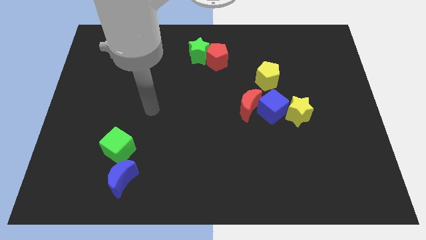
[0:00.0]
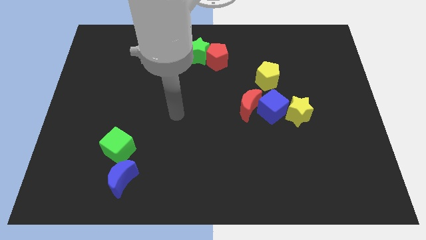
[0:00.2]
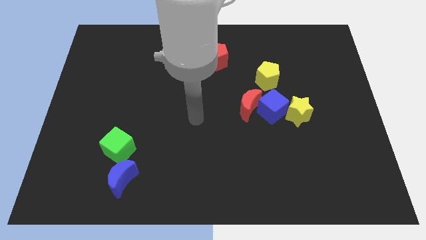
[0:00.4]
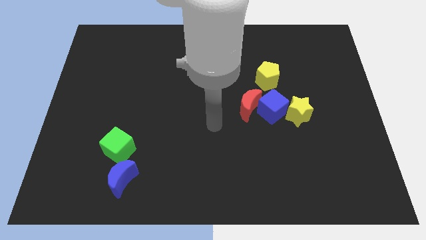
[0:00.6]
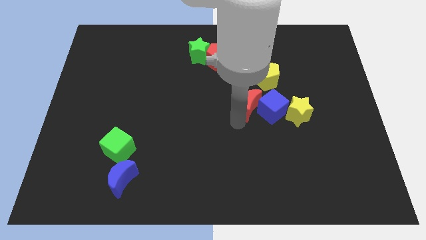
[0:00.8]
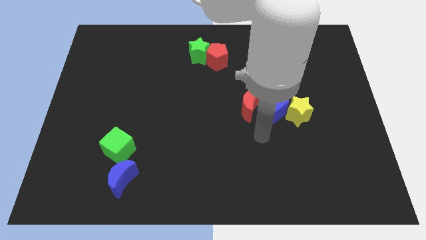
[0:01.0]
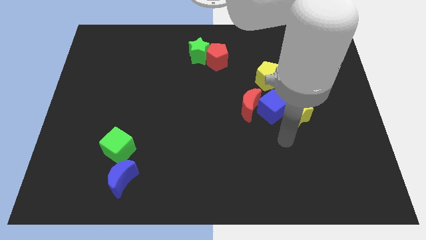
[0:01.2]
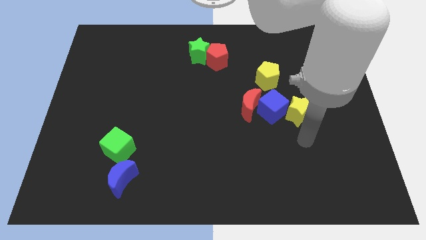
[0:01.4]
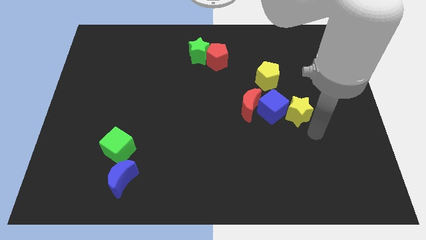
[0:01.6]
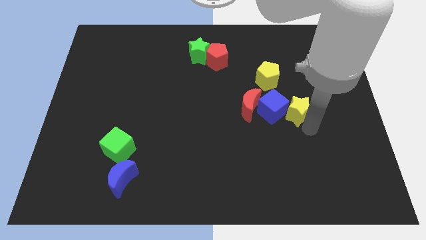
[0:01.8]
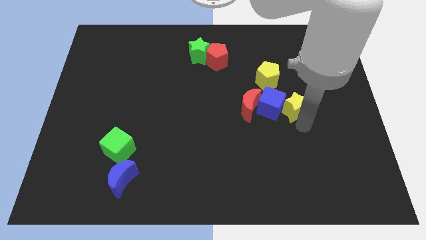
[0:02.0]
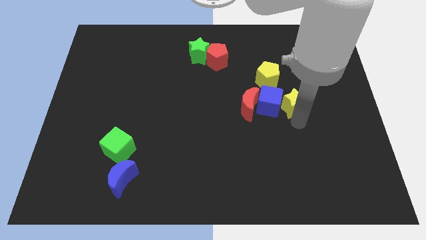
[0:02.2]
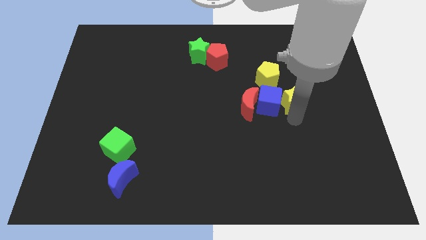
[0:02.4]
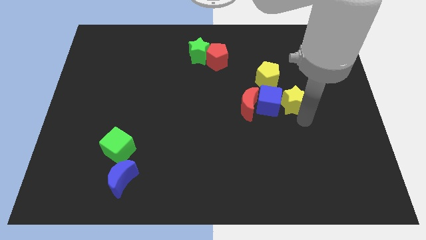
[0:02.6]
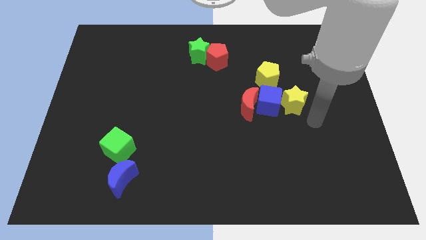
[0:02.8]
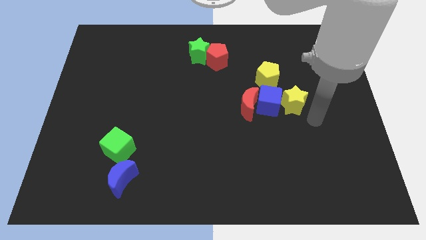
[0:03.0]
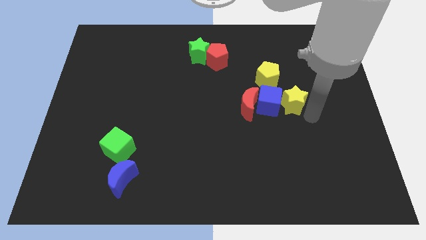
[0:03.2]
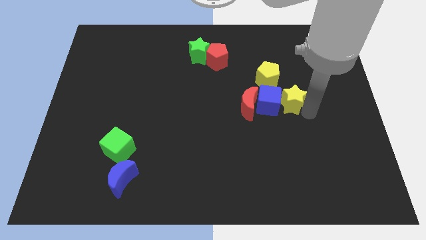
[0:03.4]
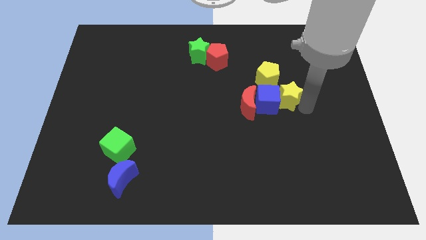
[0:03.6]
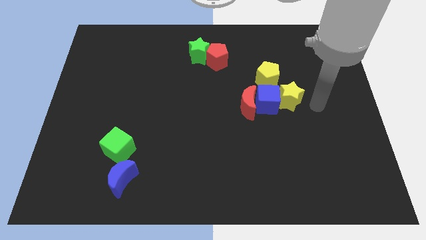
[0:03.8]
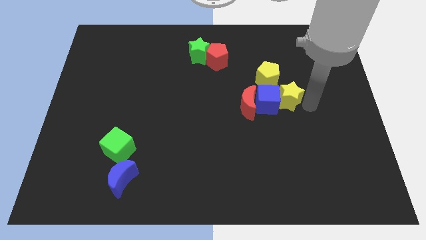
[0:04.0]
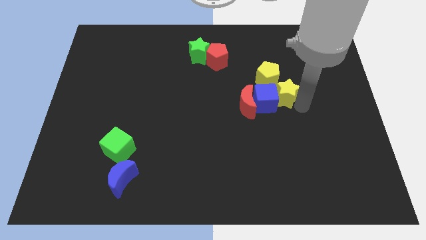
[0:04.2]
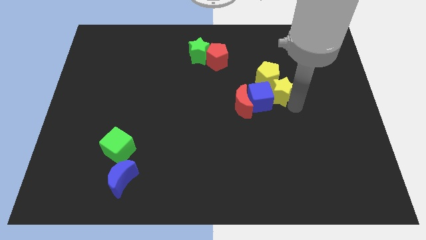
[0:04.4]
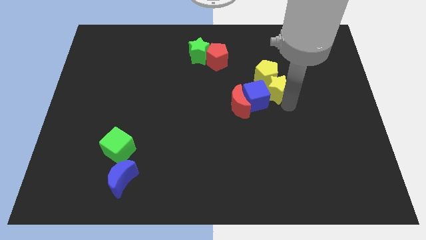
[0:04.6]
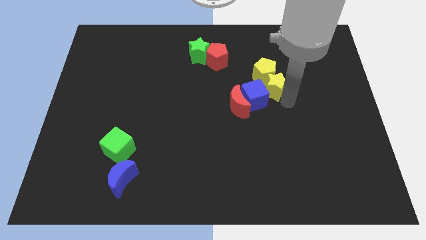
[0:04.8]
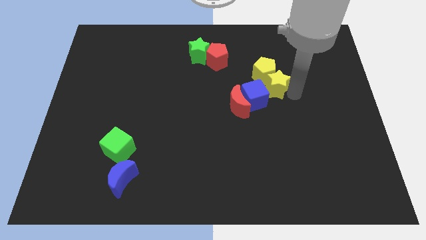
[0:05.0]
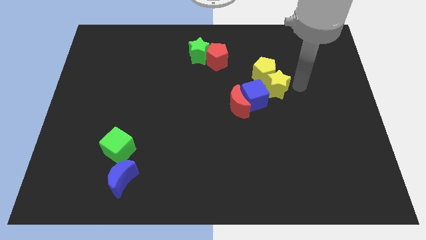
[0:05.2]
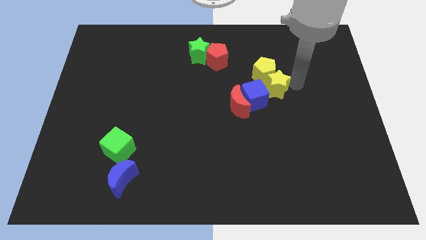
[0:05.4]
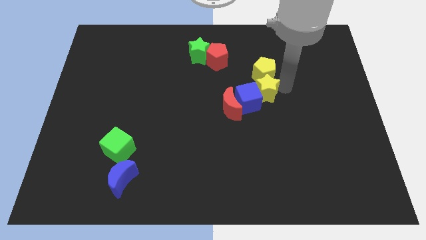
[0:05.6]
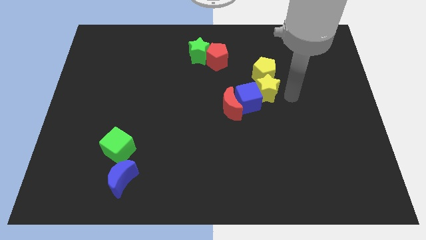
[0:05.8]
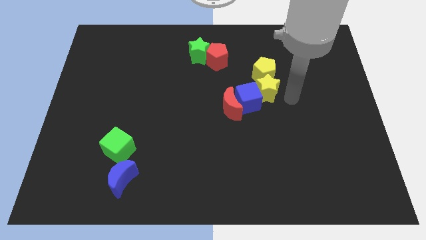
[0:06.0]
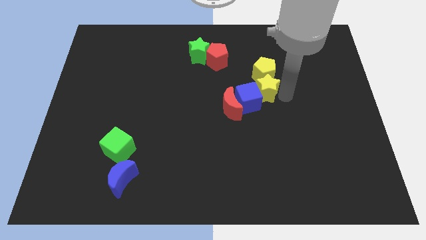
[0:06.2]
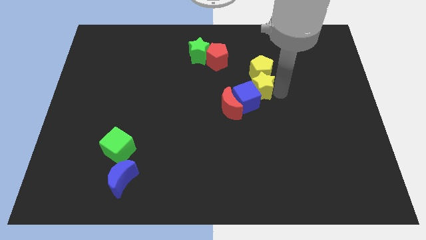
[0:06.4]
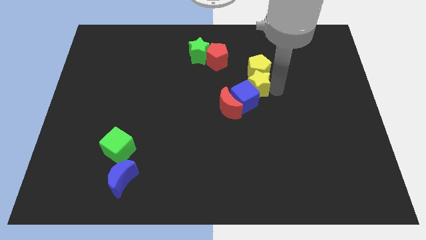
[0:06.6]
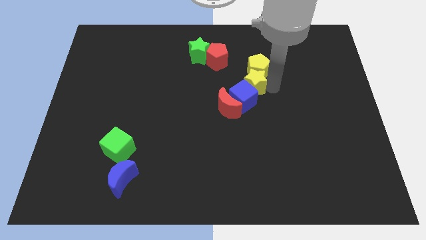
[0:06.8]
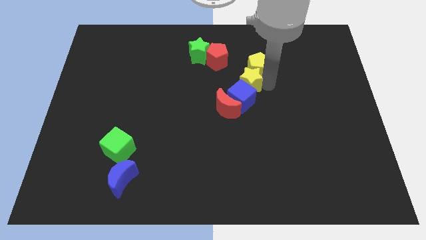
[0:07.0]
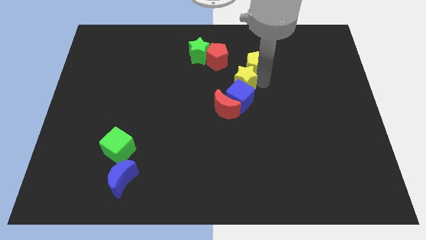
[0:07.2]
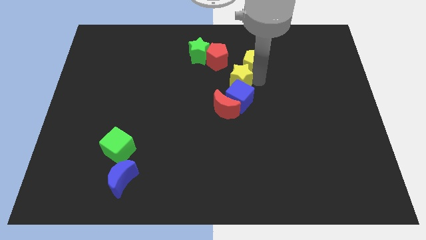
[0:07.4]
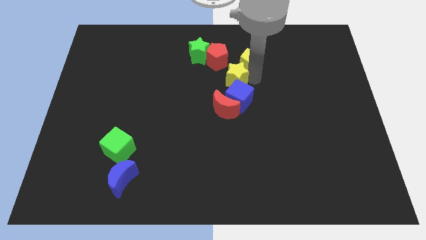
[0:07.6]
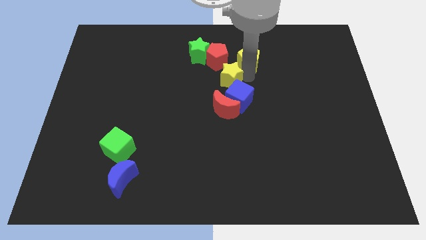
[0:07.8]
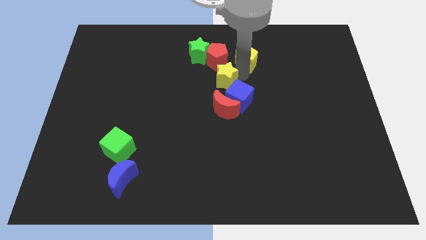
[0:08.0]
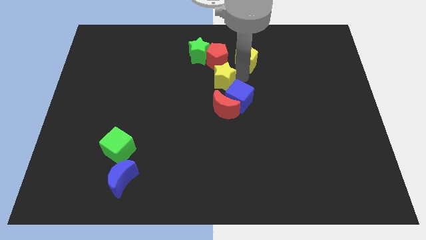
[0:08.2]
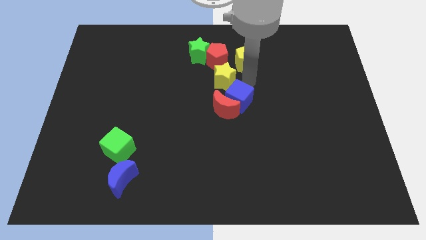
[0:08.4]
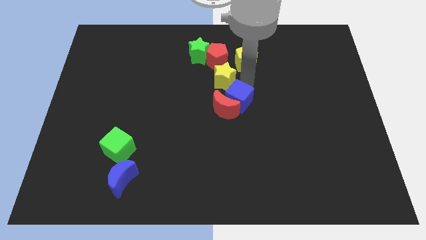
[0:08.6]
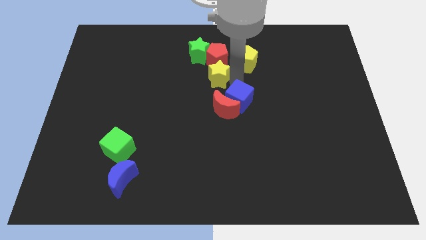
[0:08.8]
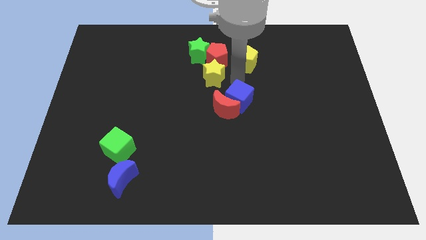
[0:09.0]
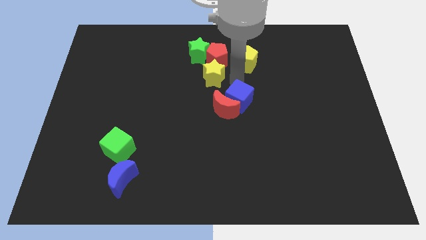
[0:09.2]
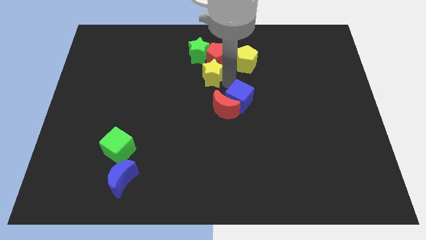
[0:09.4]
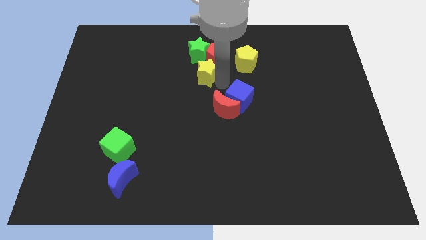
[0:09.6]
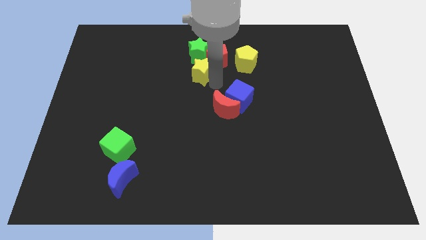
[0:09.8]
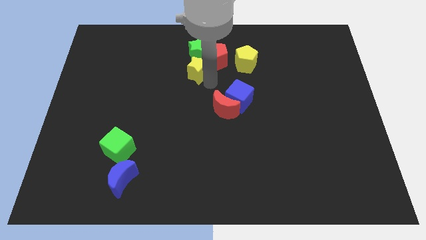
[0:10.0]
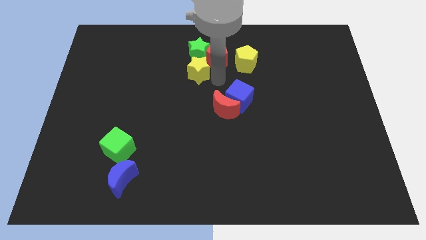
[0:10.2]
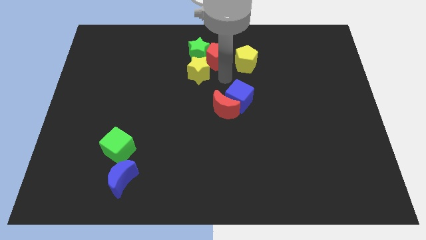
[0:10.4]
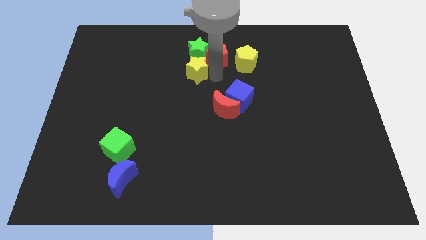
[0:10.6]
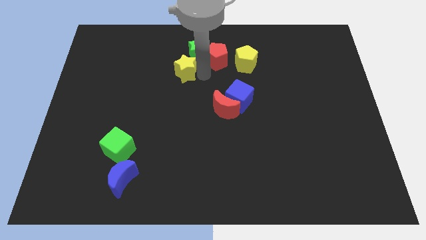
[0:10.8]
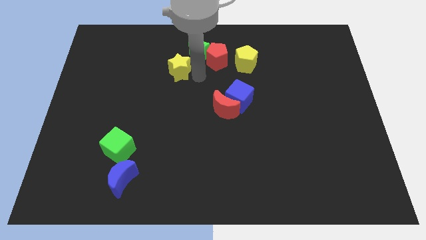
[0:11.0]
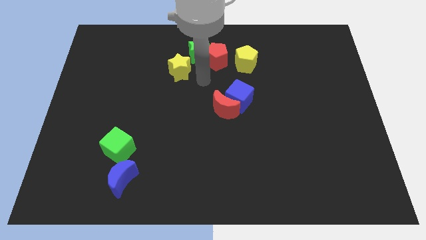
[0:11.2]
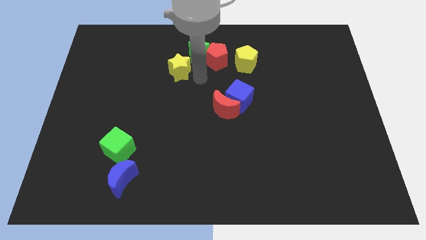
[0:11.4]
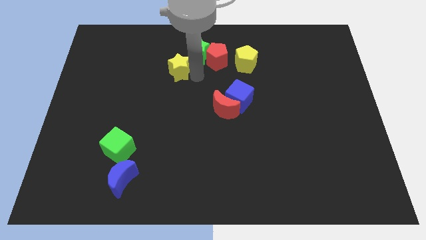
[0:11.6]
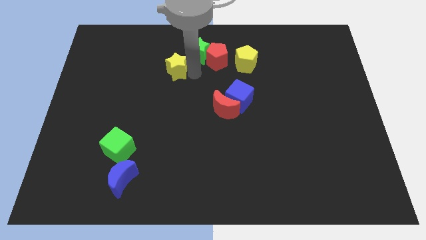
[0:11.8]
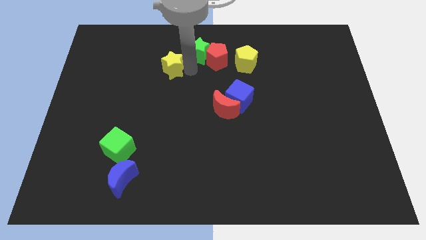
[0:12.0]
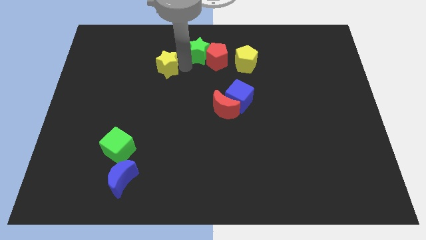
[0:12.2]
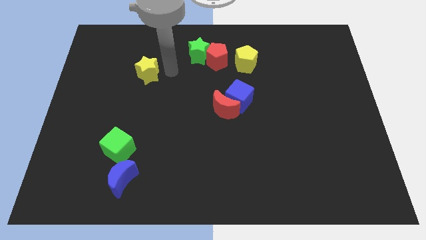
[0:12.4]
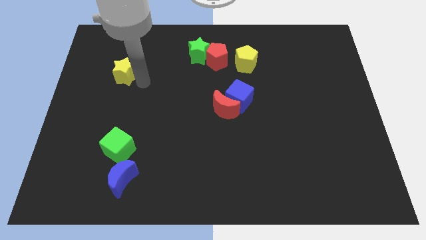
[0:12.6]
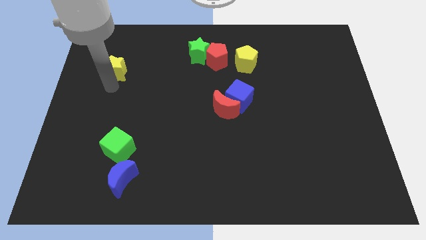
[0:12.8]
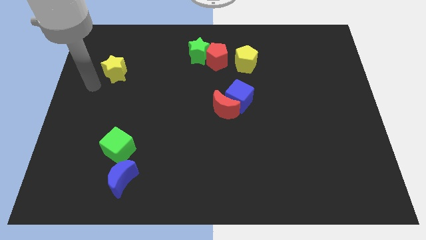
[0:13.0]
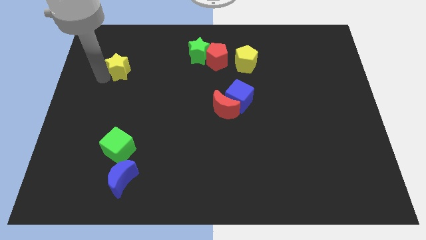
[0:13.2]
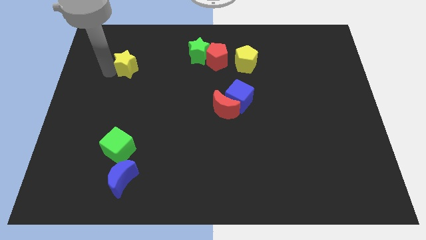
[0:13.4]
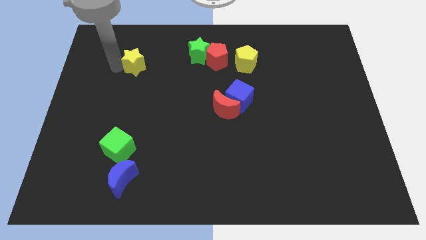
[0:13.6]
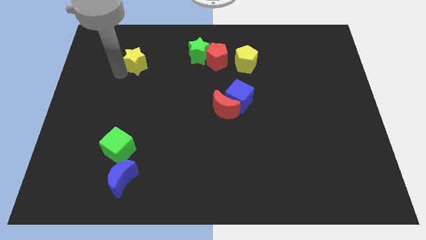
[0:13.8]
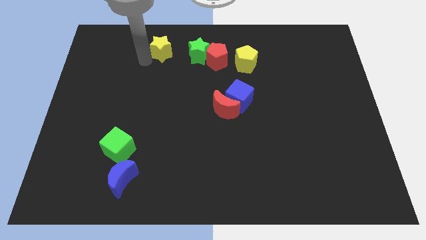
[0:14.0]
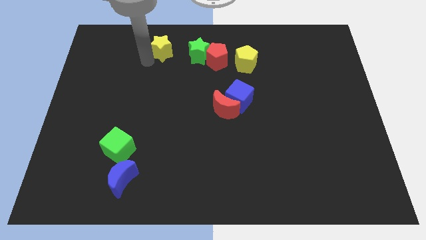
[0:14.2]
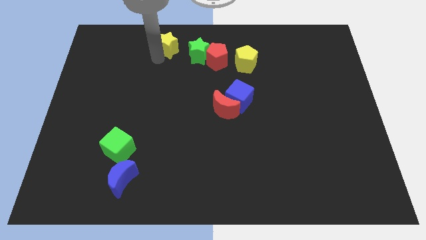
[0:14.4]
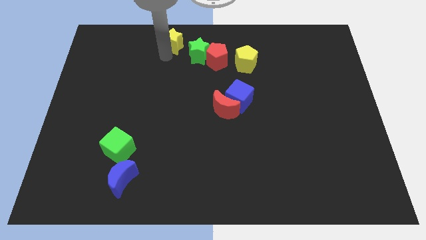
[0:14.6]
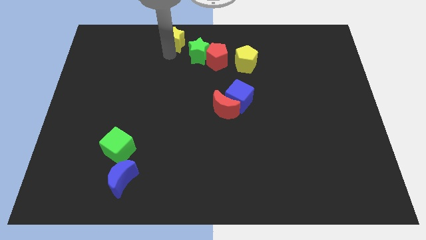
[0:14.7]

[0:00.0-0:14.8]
push the yellow star to the towards your base
